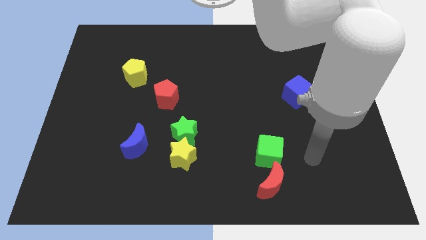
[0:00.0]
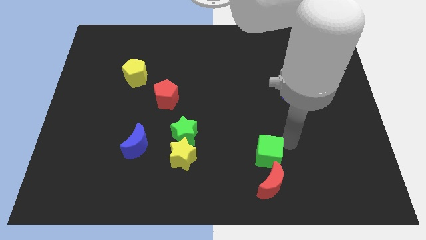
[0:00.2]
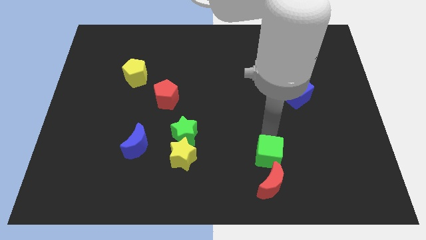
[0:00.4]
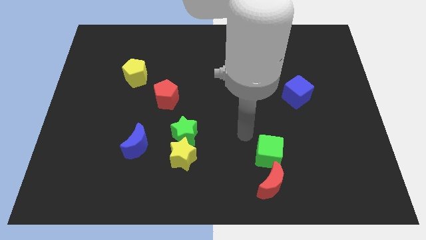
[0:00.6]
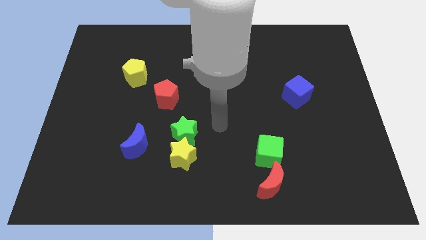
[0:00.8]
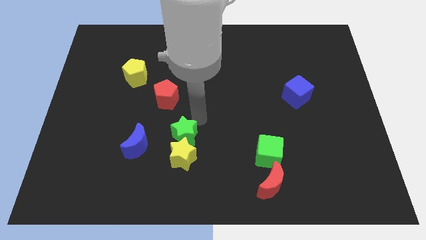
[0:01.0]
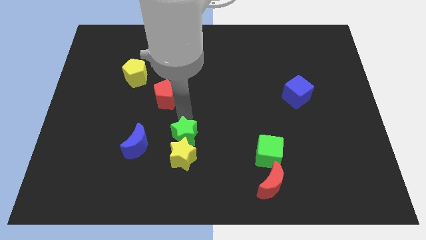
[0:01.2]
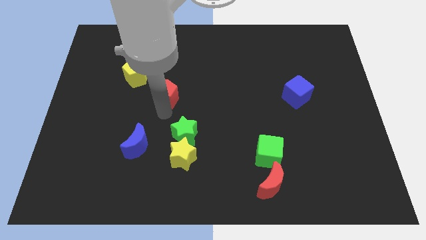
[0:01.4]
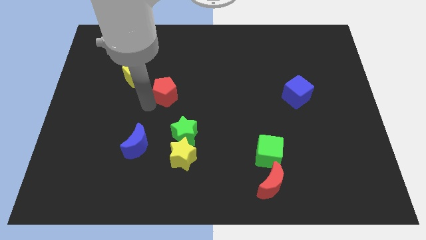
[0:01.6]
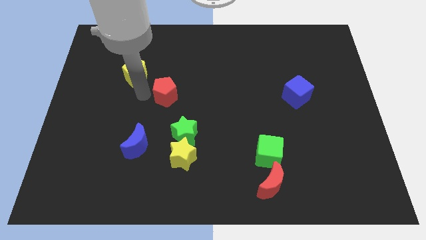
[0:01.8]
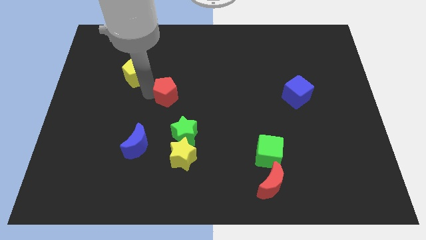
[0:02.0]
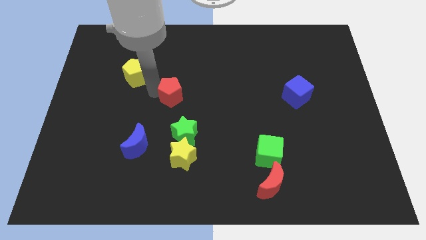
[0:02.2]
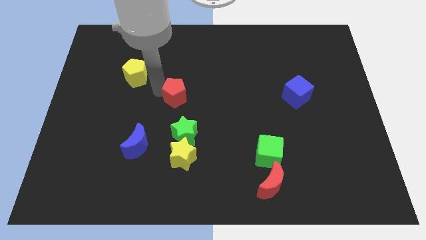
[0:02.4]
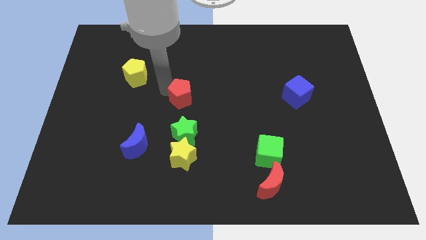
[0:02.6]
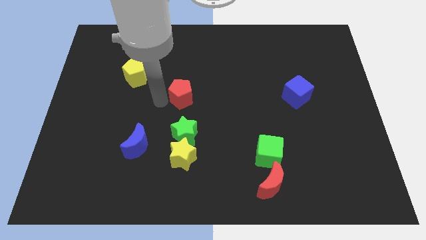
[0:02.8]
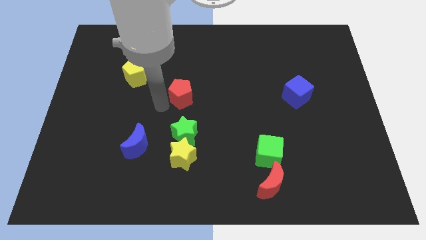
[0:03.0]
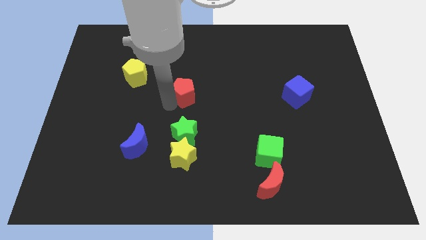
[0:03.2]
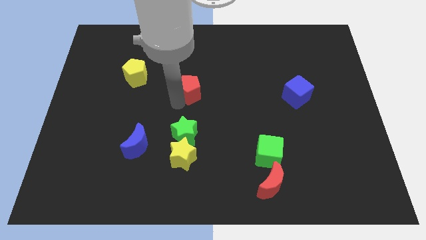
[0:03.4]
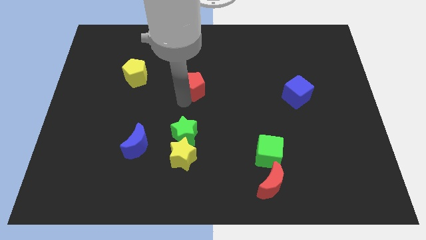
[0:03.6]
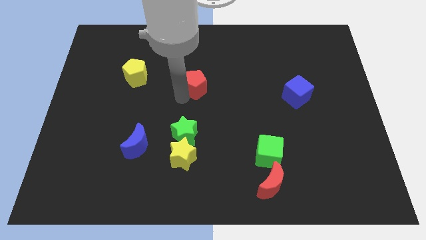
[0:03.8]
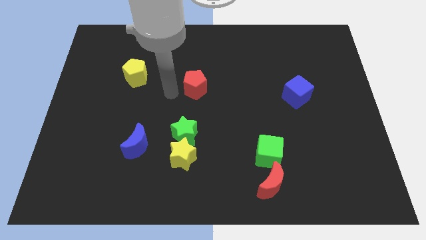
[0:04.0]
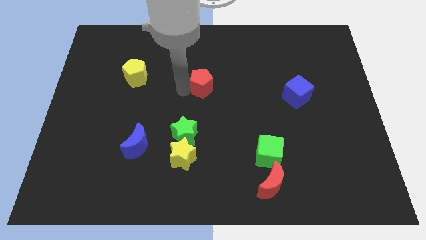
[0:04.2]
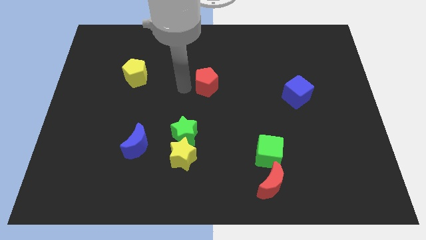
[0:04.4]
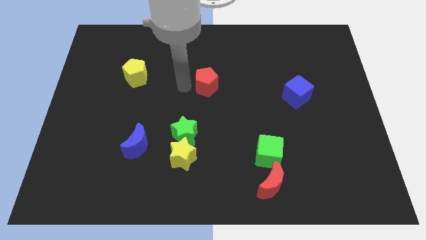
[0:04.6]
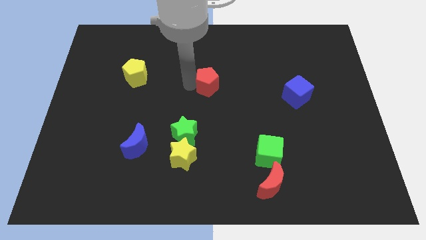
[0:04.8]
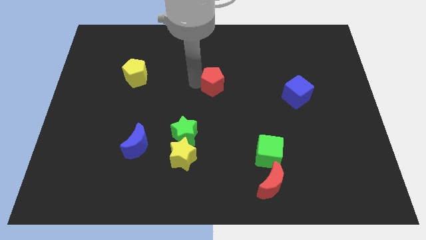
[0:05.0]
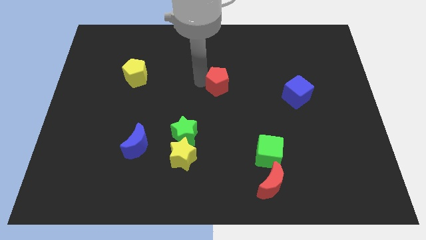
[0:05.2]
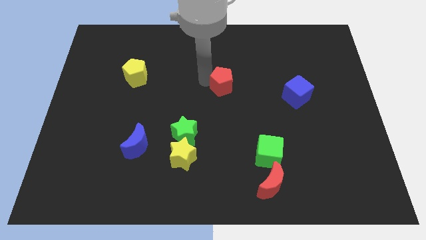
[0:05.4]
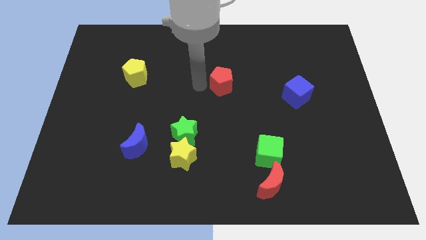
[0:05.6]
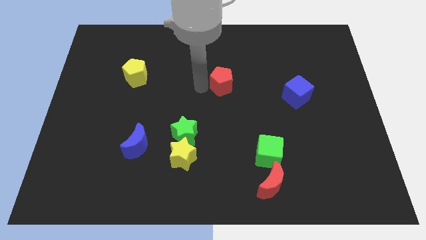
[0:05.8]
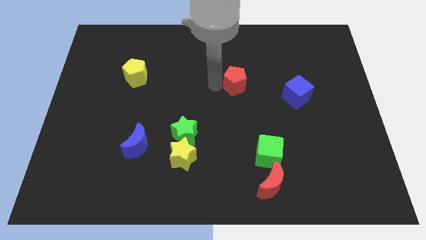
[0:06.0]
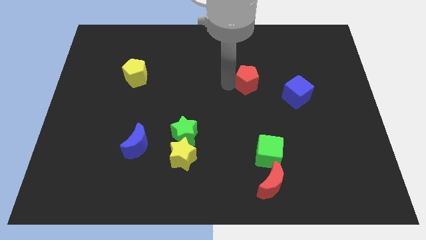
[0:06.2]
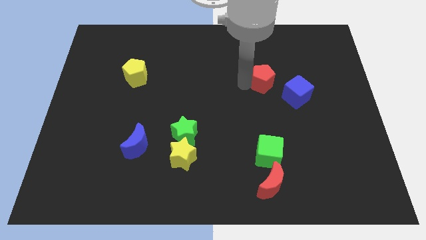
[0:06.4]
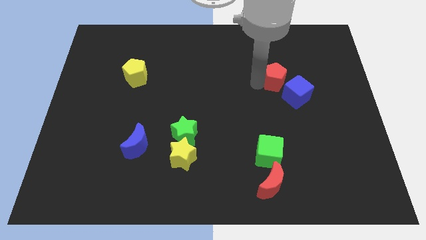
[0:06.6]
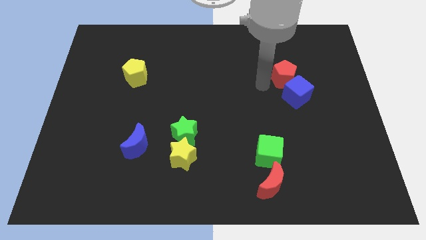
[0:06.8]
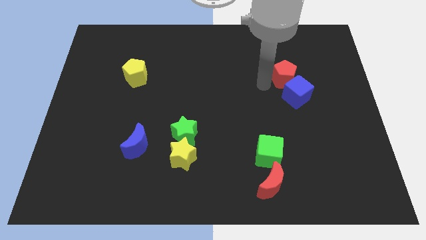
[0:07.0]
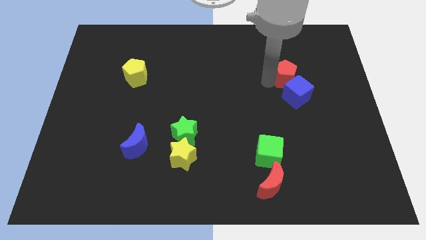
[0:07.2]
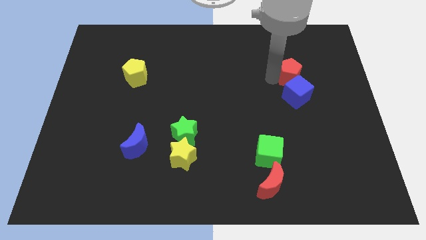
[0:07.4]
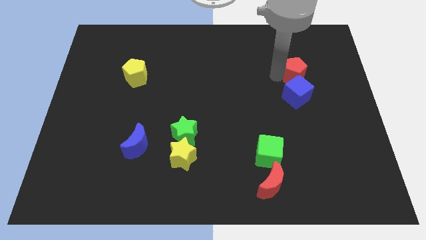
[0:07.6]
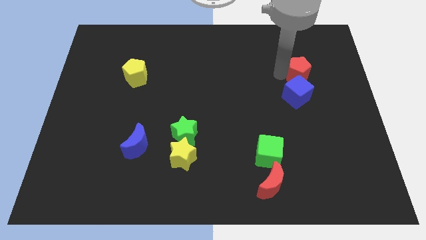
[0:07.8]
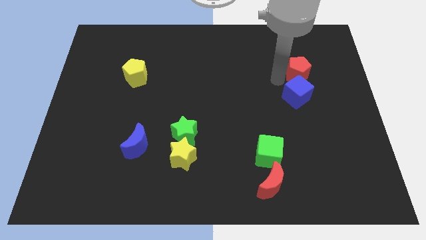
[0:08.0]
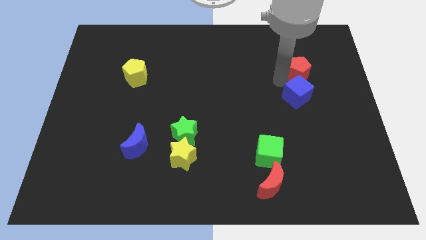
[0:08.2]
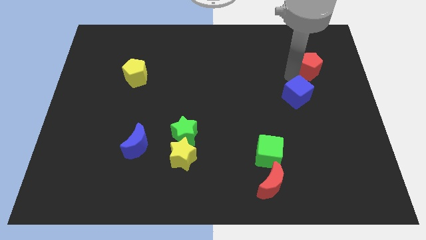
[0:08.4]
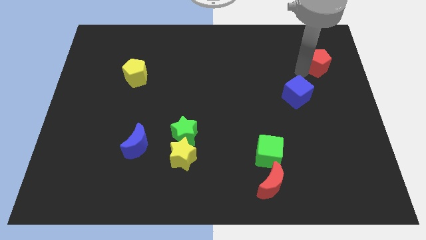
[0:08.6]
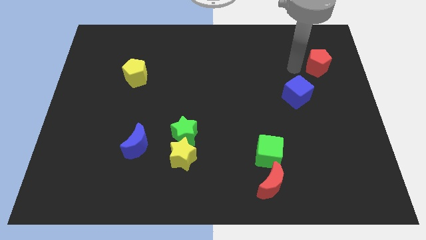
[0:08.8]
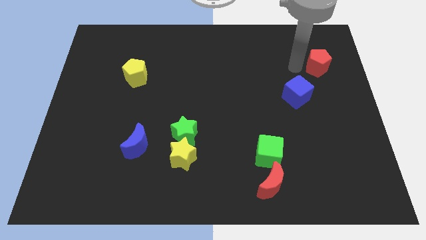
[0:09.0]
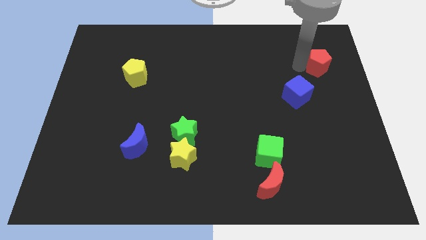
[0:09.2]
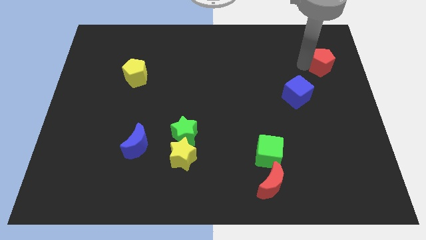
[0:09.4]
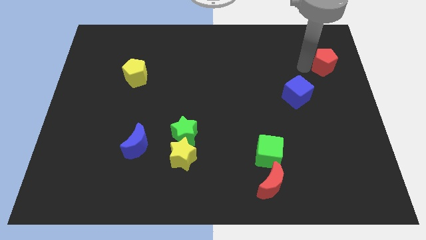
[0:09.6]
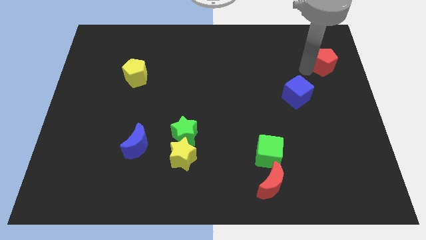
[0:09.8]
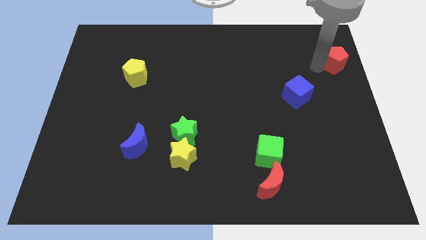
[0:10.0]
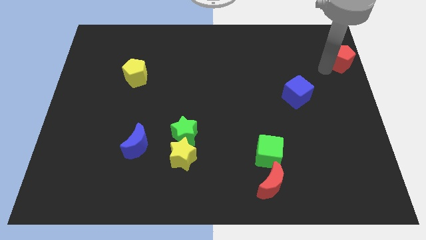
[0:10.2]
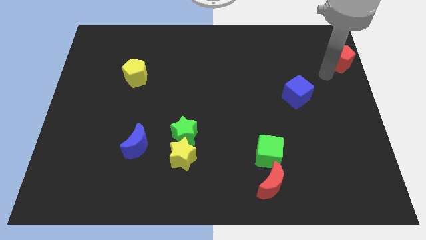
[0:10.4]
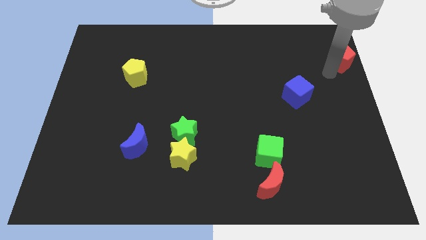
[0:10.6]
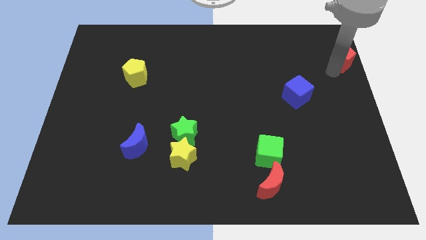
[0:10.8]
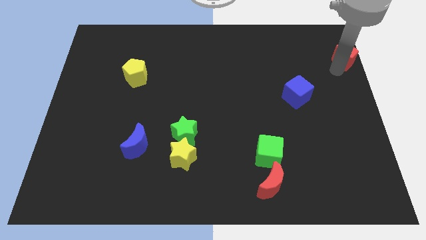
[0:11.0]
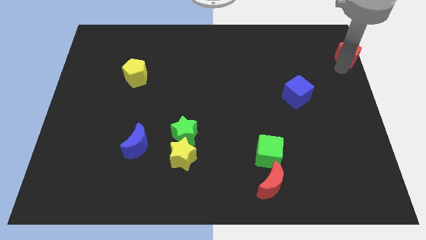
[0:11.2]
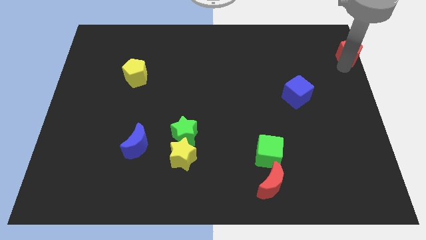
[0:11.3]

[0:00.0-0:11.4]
move the red pentagon to the top right

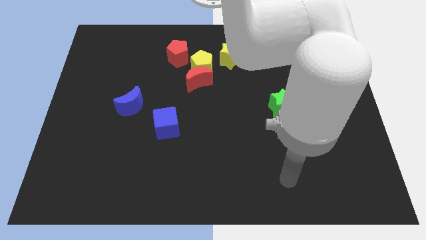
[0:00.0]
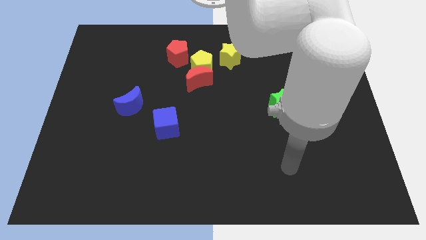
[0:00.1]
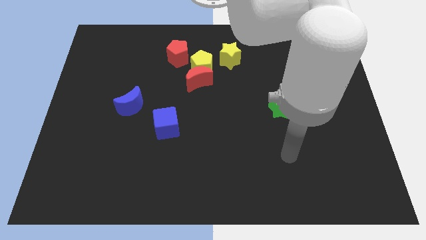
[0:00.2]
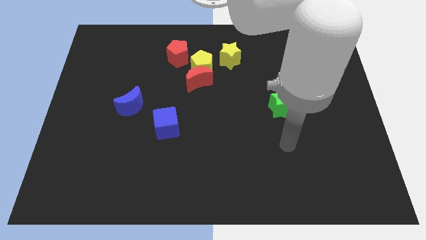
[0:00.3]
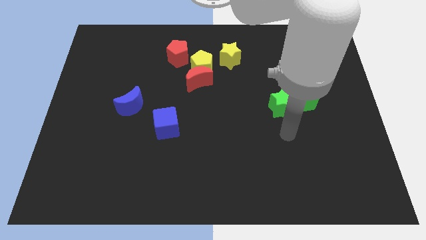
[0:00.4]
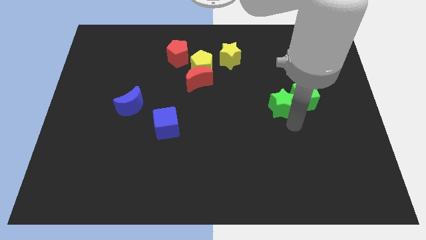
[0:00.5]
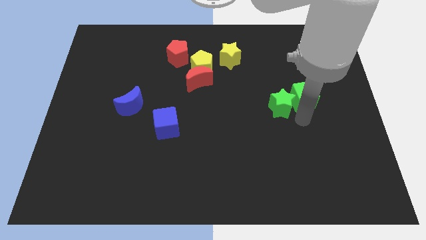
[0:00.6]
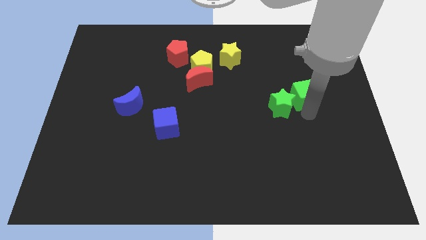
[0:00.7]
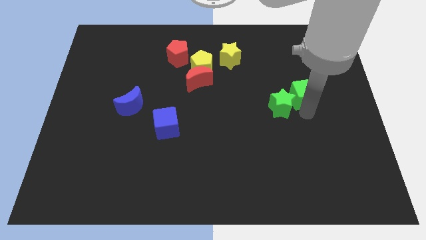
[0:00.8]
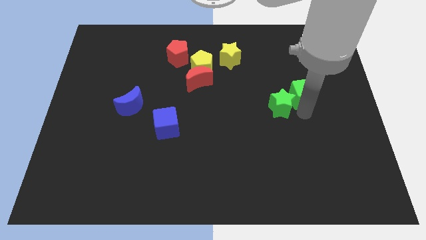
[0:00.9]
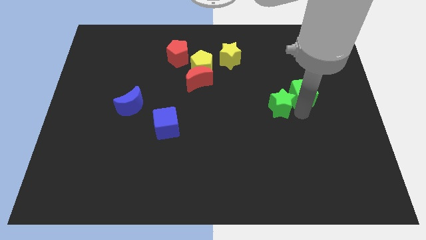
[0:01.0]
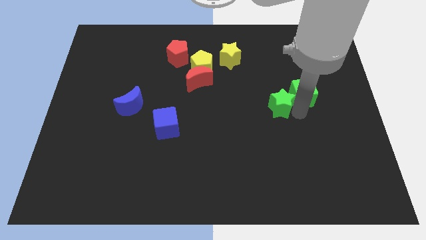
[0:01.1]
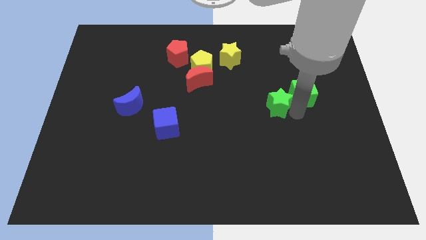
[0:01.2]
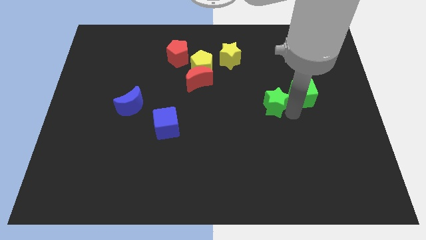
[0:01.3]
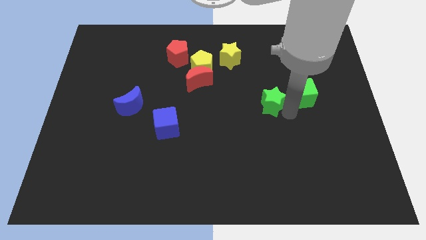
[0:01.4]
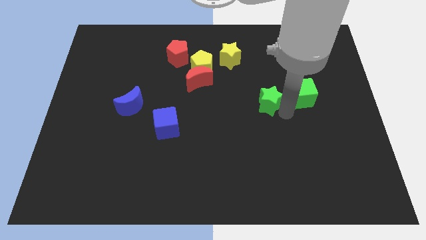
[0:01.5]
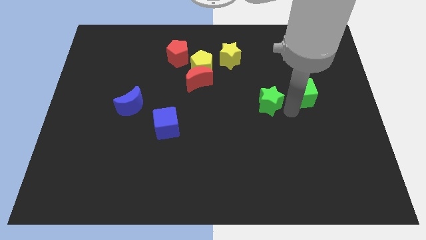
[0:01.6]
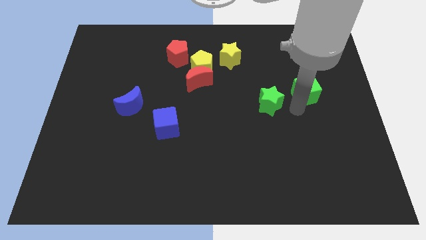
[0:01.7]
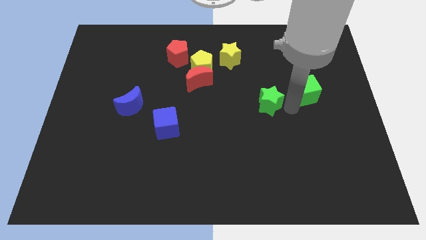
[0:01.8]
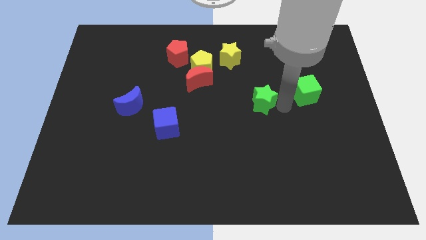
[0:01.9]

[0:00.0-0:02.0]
put the green star to the middle
